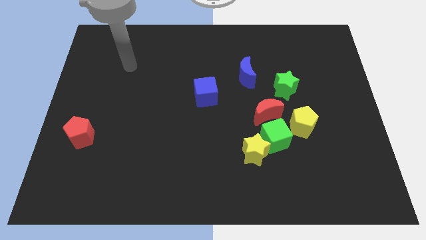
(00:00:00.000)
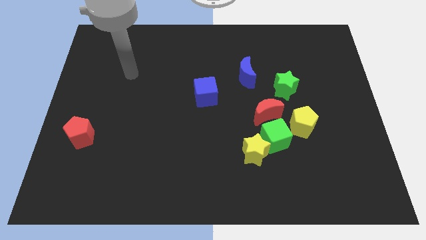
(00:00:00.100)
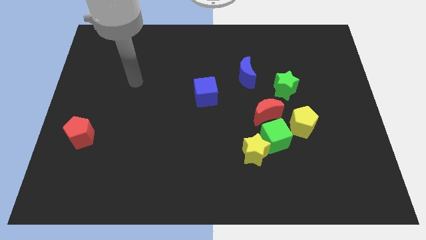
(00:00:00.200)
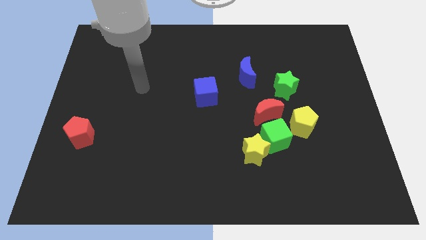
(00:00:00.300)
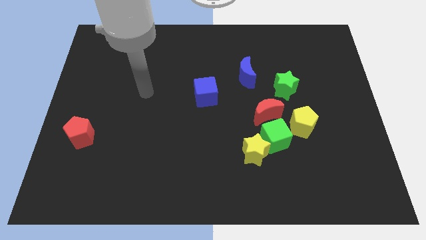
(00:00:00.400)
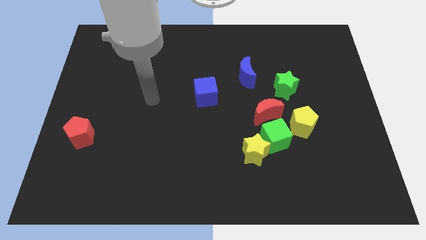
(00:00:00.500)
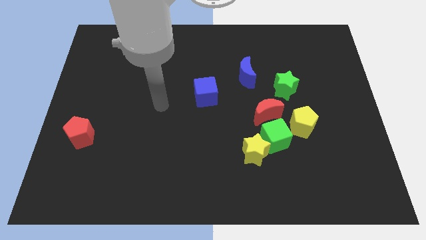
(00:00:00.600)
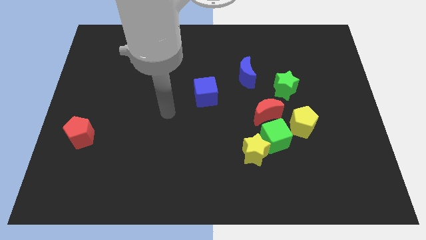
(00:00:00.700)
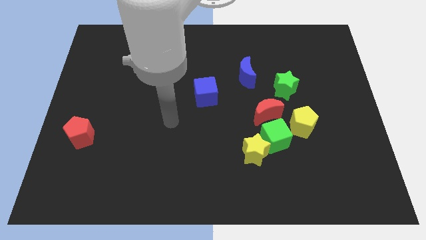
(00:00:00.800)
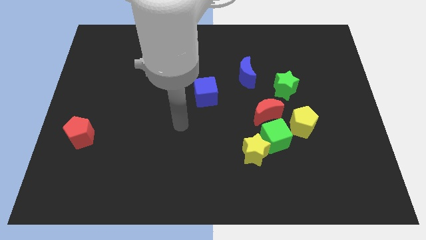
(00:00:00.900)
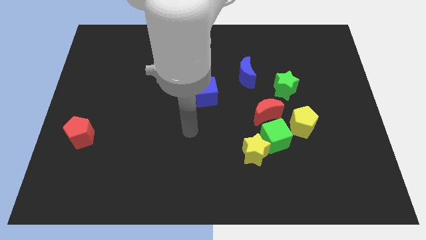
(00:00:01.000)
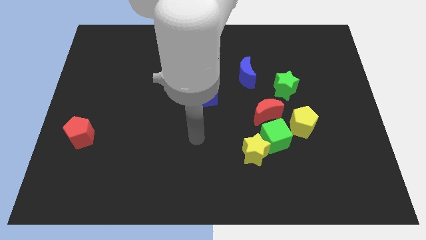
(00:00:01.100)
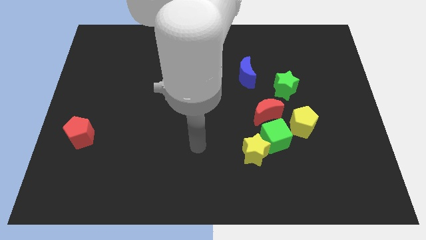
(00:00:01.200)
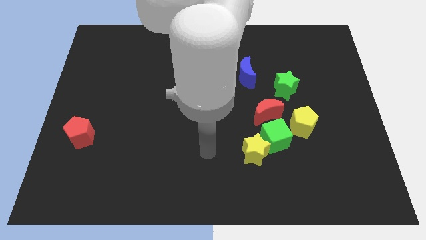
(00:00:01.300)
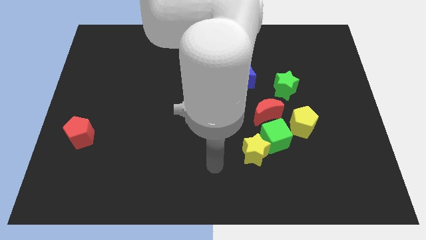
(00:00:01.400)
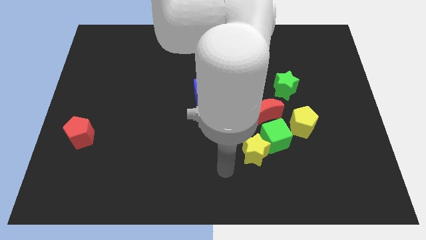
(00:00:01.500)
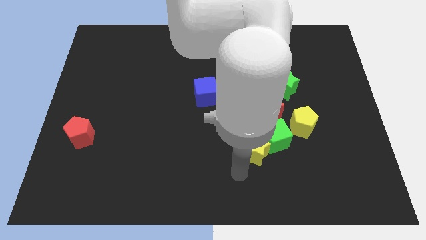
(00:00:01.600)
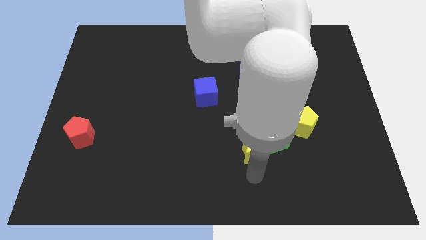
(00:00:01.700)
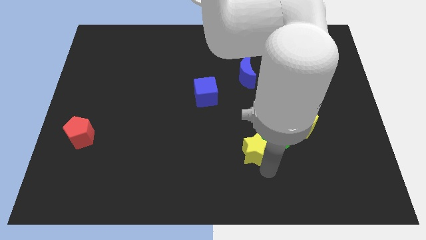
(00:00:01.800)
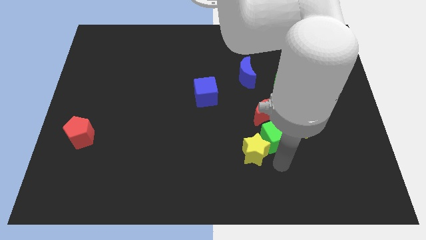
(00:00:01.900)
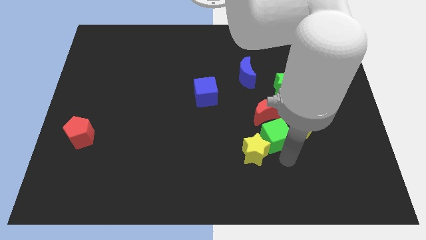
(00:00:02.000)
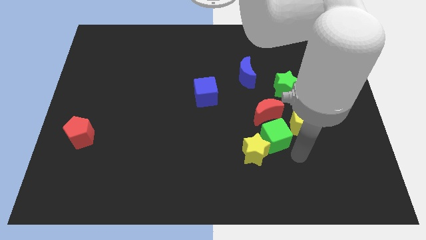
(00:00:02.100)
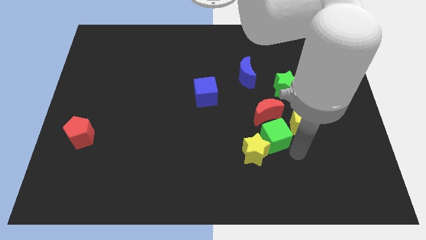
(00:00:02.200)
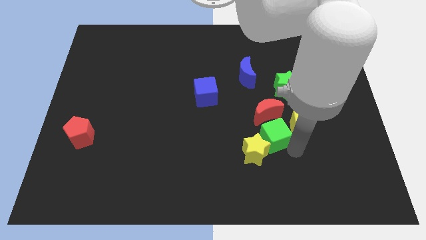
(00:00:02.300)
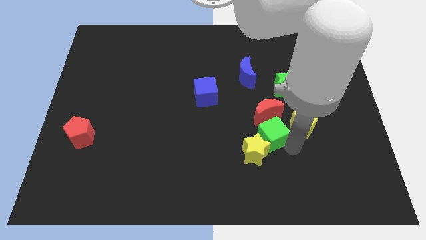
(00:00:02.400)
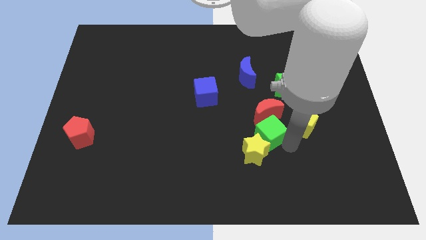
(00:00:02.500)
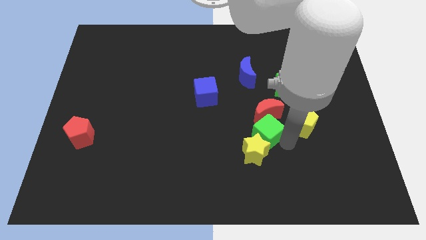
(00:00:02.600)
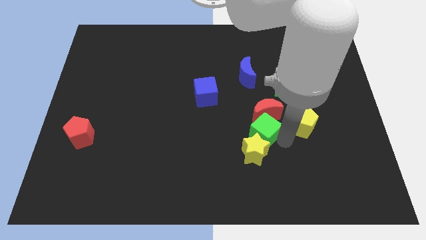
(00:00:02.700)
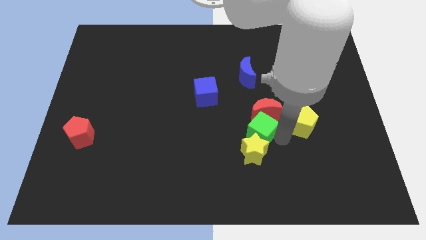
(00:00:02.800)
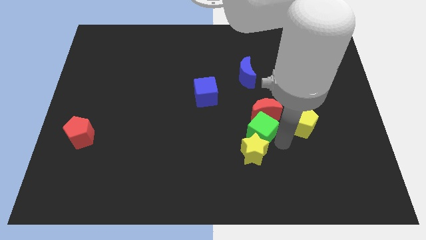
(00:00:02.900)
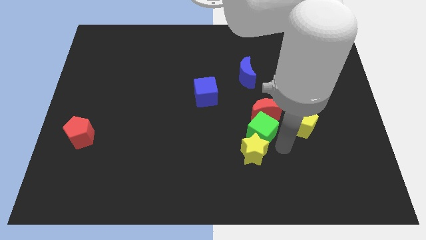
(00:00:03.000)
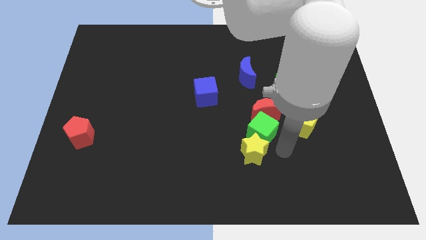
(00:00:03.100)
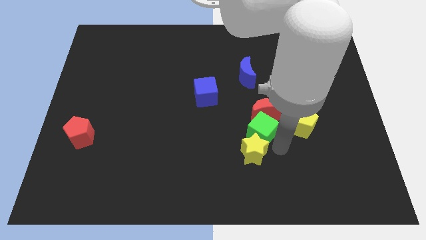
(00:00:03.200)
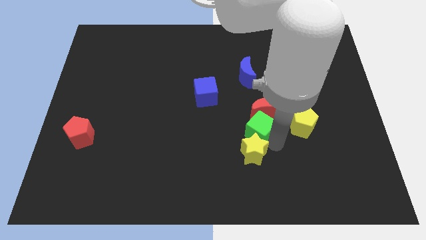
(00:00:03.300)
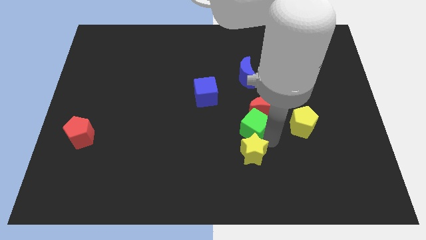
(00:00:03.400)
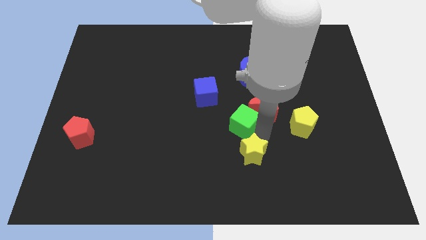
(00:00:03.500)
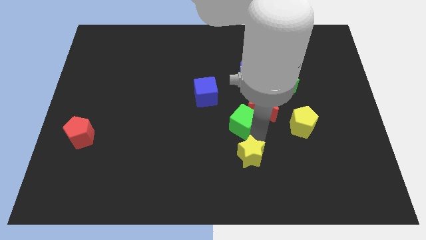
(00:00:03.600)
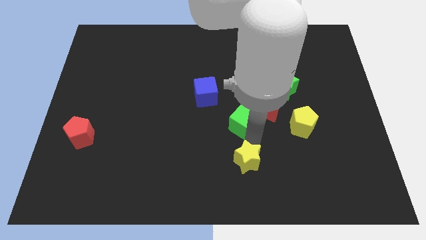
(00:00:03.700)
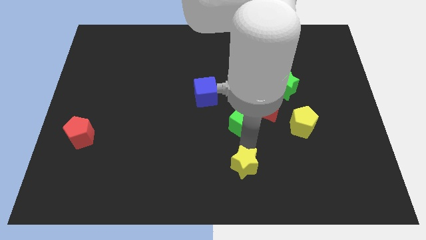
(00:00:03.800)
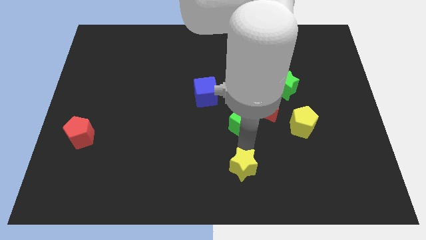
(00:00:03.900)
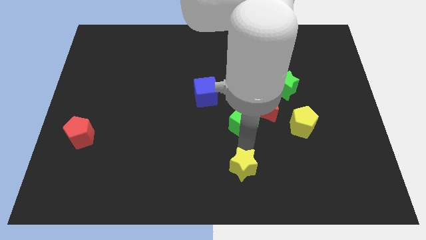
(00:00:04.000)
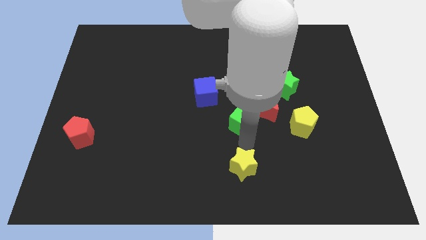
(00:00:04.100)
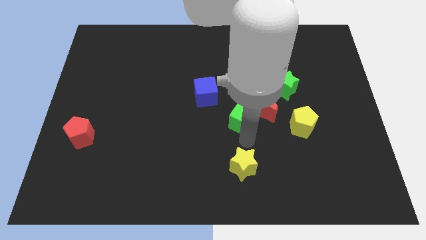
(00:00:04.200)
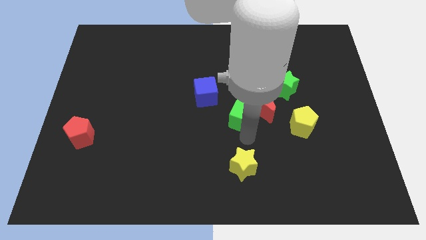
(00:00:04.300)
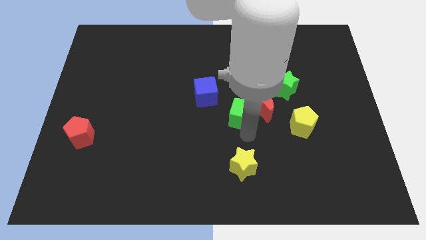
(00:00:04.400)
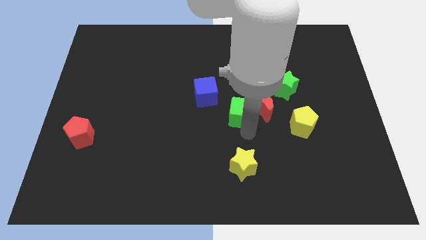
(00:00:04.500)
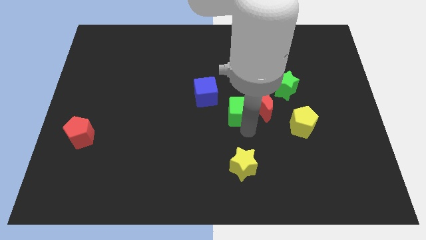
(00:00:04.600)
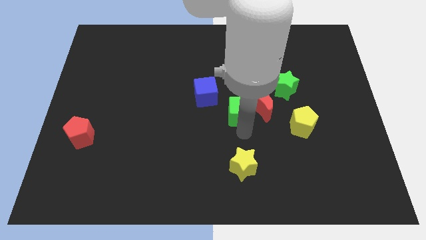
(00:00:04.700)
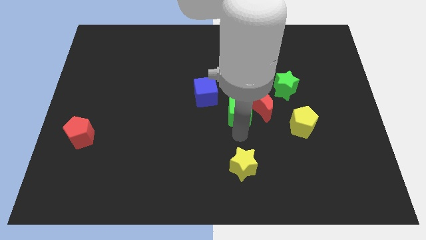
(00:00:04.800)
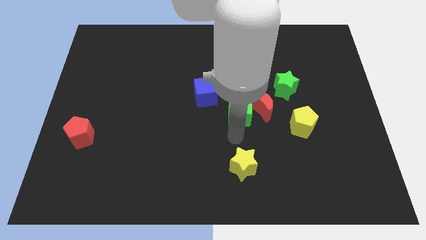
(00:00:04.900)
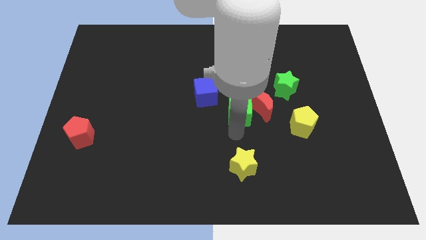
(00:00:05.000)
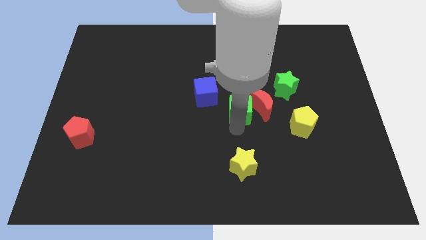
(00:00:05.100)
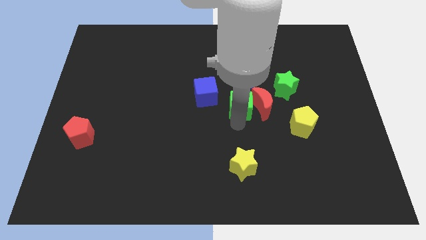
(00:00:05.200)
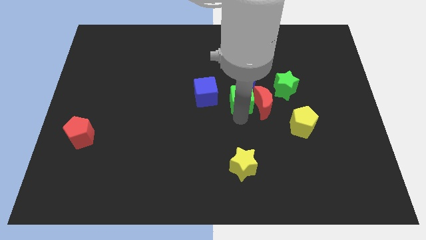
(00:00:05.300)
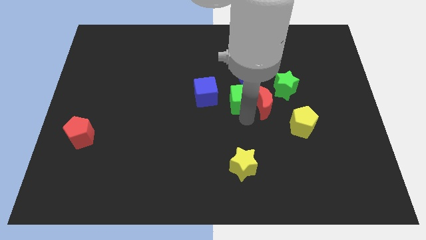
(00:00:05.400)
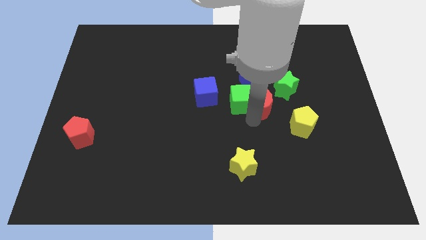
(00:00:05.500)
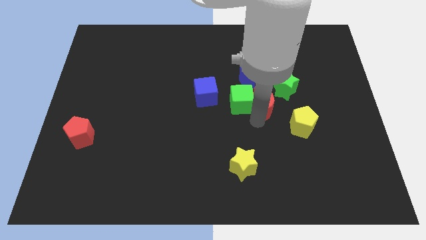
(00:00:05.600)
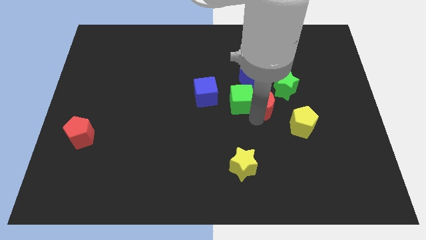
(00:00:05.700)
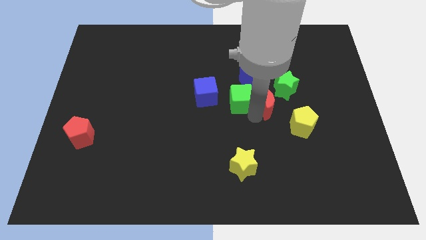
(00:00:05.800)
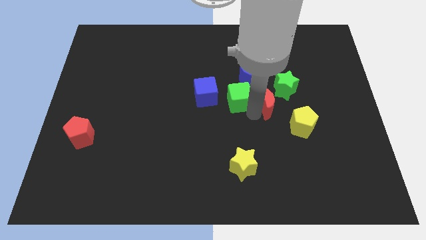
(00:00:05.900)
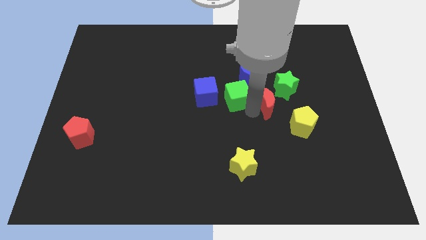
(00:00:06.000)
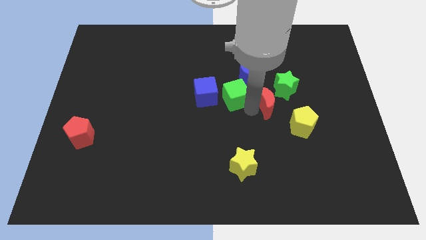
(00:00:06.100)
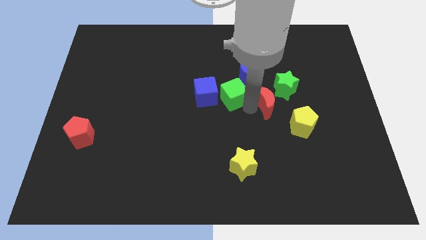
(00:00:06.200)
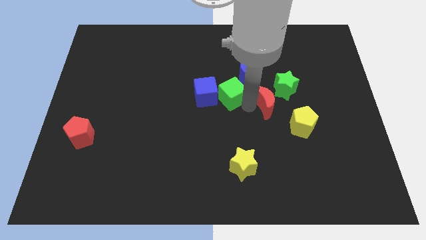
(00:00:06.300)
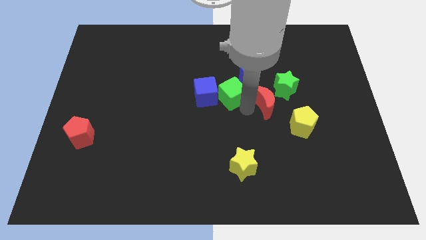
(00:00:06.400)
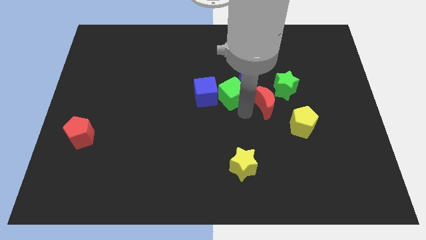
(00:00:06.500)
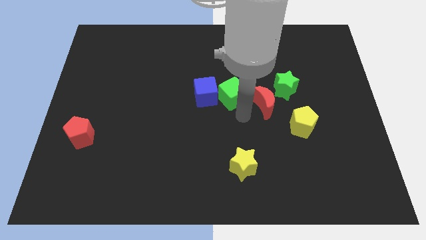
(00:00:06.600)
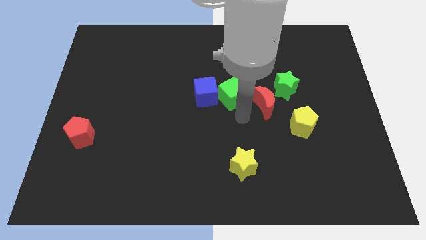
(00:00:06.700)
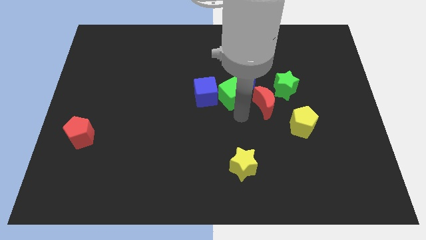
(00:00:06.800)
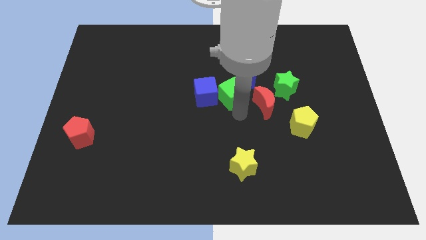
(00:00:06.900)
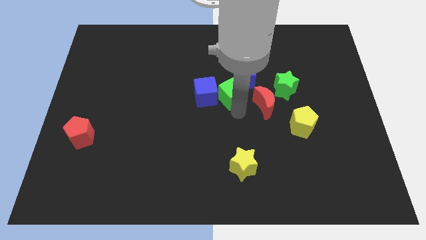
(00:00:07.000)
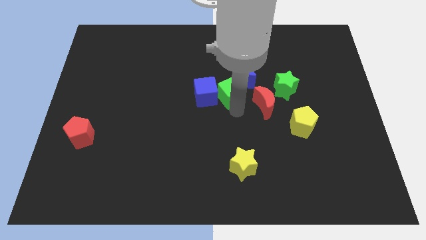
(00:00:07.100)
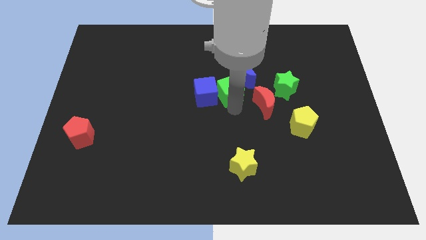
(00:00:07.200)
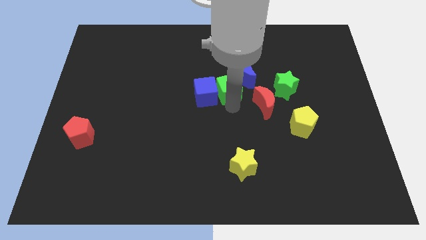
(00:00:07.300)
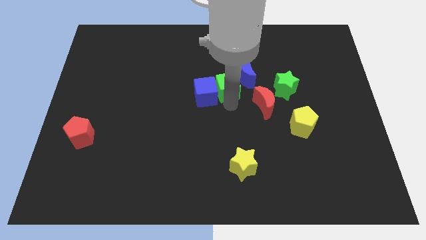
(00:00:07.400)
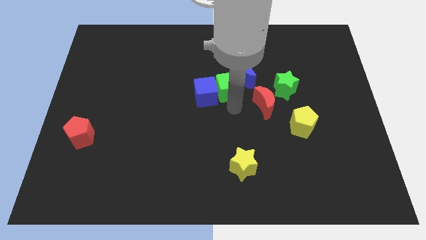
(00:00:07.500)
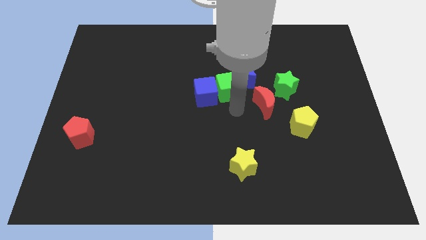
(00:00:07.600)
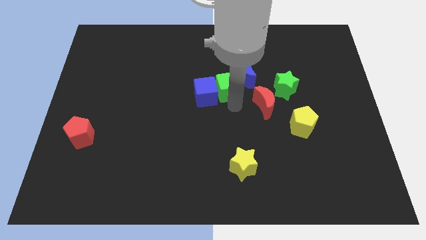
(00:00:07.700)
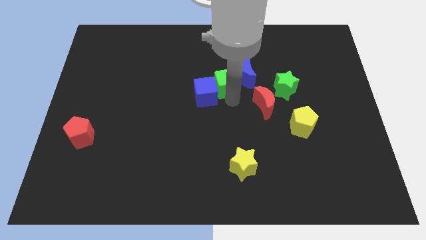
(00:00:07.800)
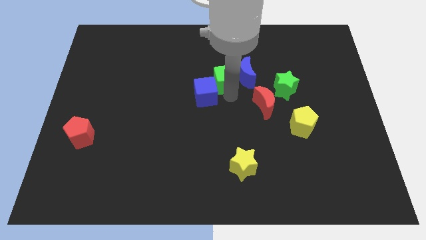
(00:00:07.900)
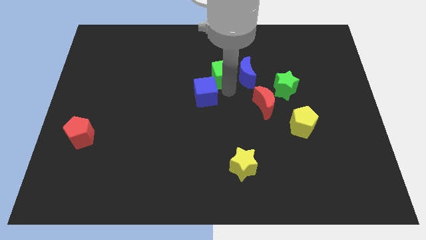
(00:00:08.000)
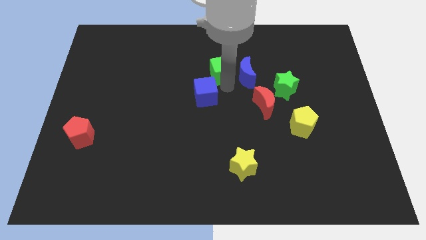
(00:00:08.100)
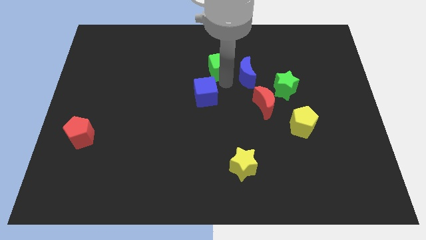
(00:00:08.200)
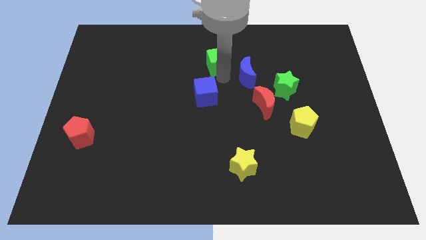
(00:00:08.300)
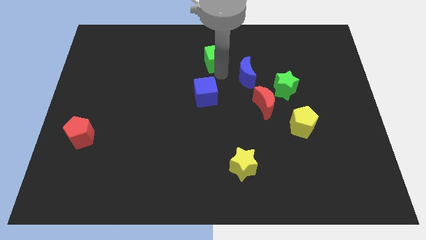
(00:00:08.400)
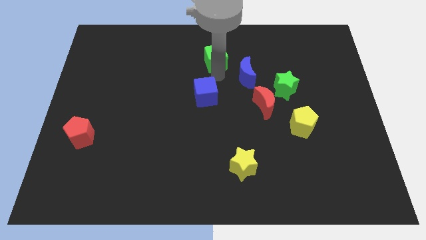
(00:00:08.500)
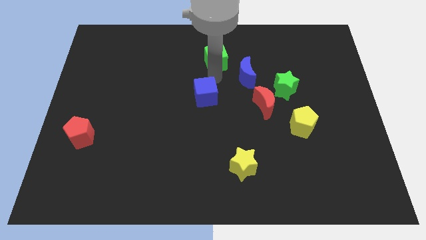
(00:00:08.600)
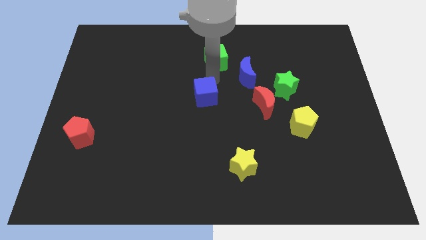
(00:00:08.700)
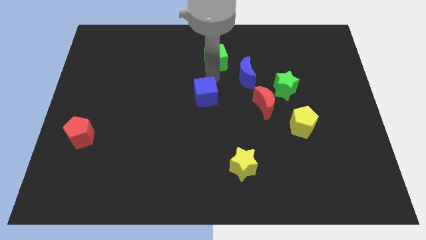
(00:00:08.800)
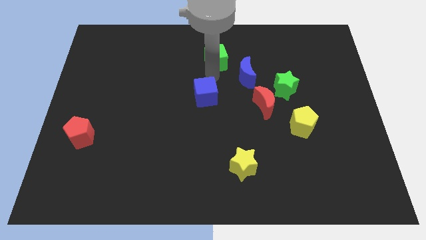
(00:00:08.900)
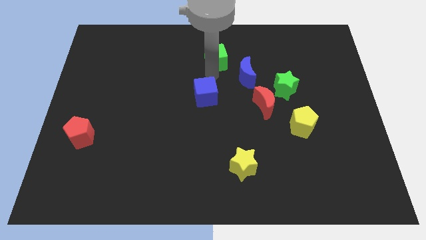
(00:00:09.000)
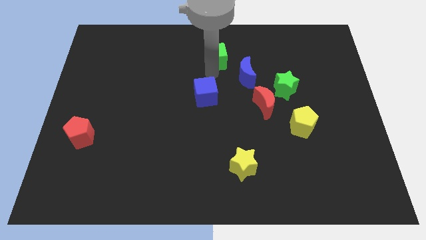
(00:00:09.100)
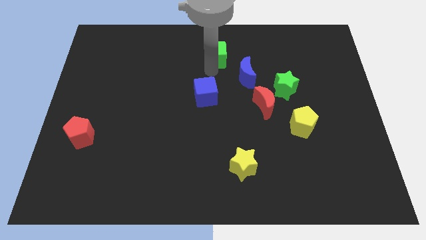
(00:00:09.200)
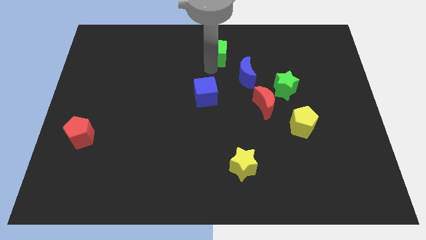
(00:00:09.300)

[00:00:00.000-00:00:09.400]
put the green cube to the top side
